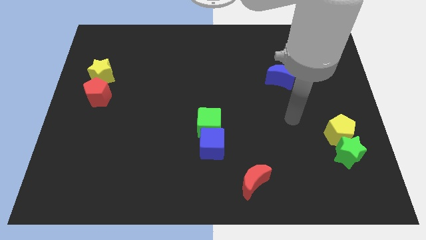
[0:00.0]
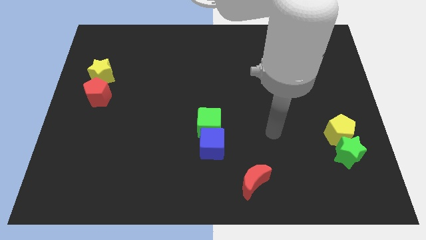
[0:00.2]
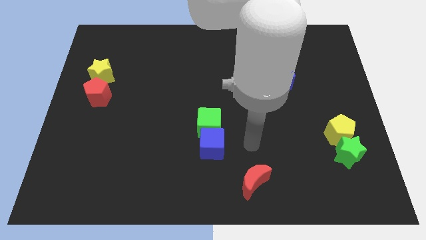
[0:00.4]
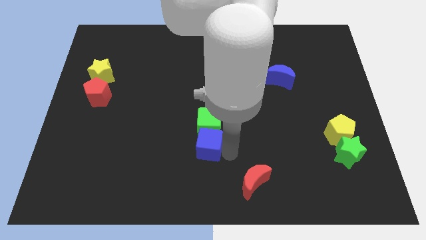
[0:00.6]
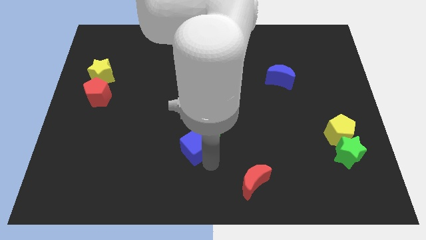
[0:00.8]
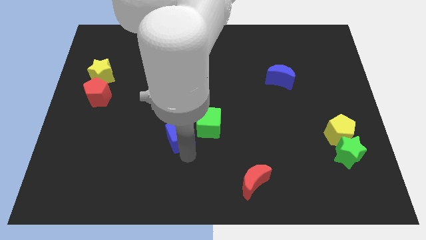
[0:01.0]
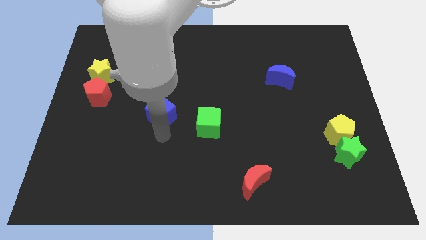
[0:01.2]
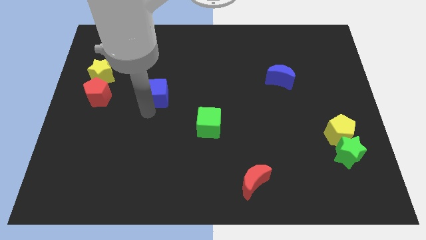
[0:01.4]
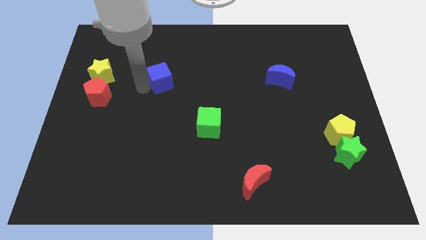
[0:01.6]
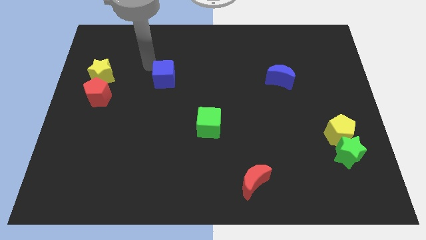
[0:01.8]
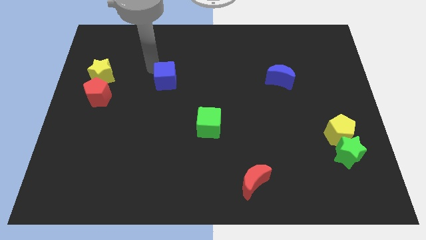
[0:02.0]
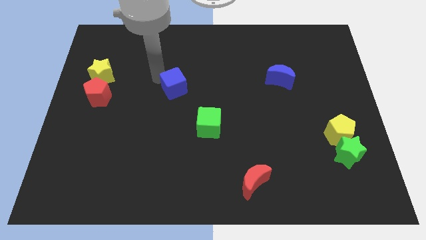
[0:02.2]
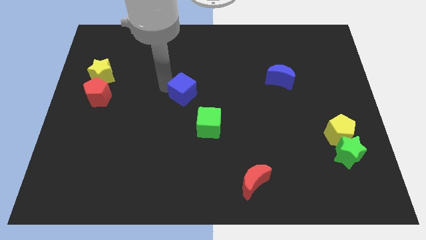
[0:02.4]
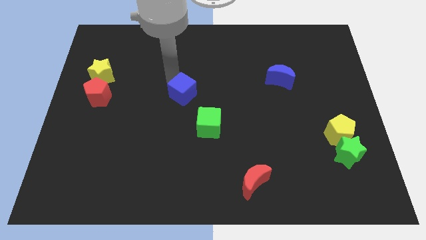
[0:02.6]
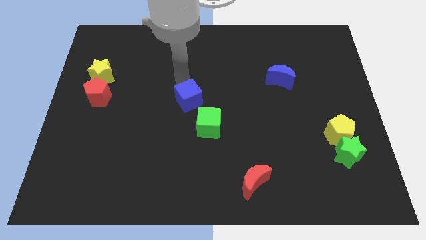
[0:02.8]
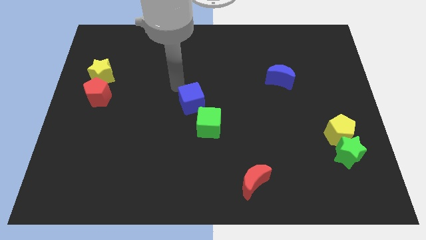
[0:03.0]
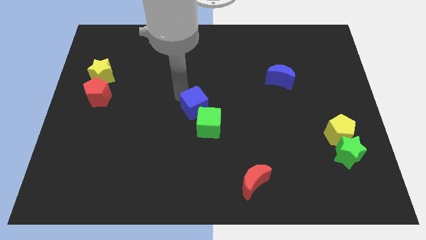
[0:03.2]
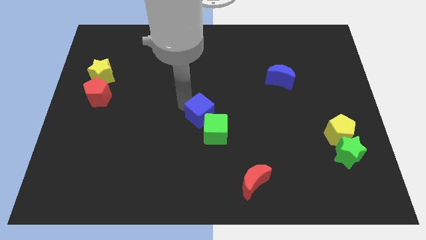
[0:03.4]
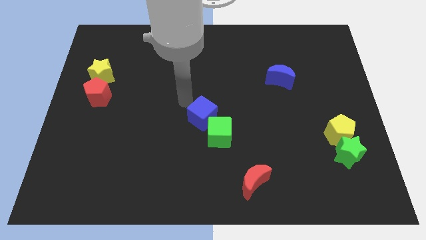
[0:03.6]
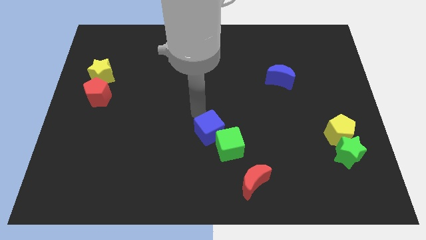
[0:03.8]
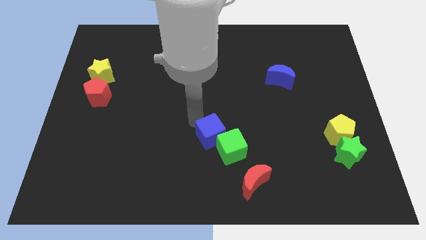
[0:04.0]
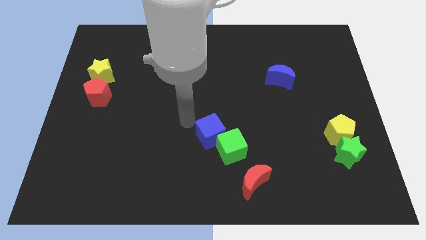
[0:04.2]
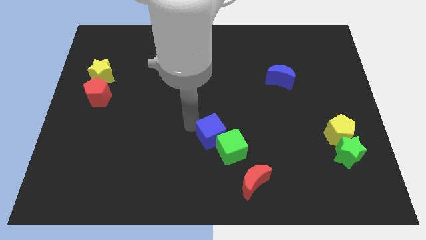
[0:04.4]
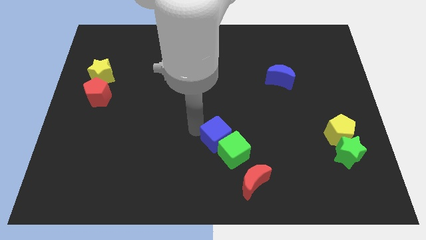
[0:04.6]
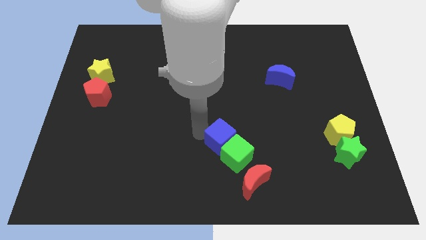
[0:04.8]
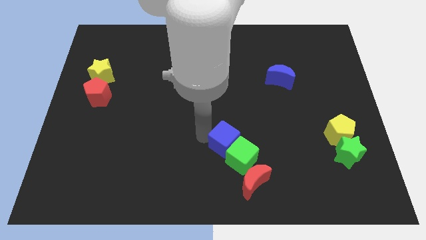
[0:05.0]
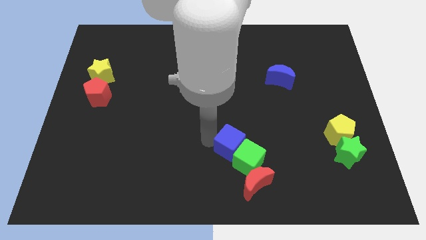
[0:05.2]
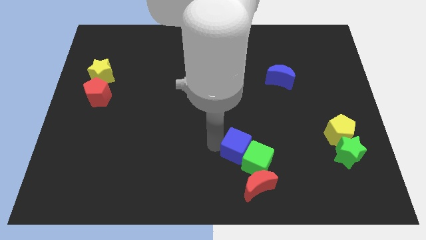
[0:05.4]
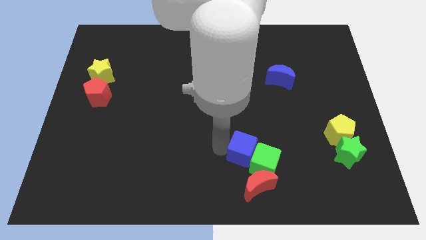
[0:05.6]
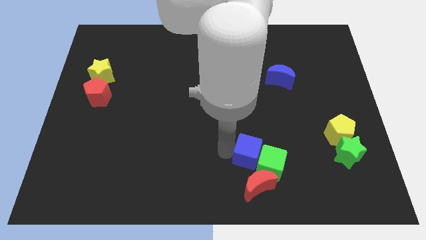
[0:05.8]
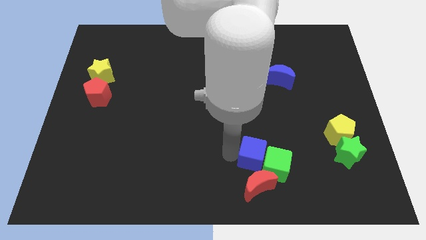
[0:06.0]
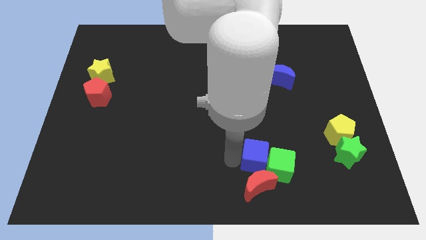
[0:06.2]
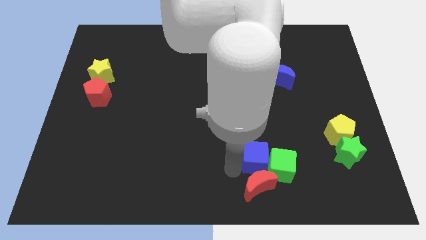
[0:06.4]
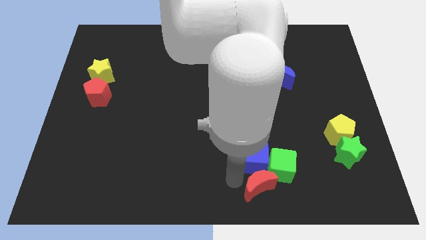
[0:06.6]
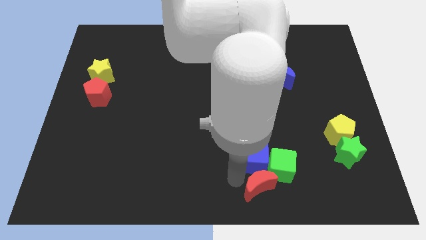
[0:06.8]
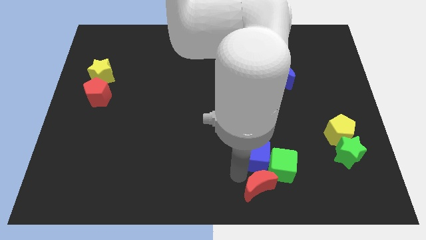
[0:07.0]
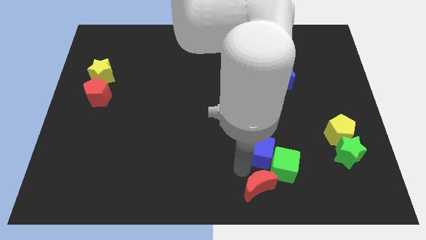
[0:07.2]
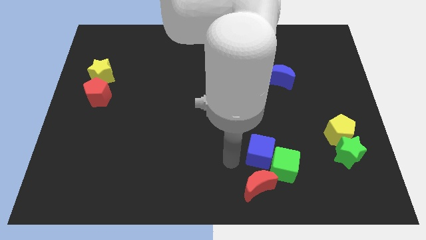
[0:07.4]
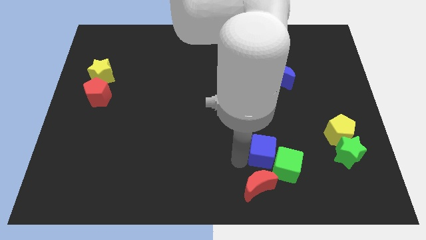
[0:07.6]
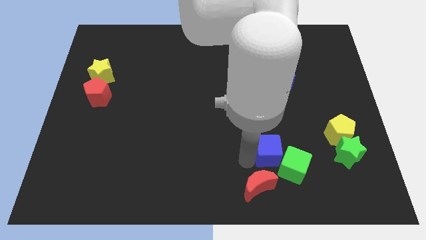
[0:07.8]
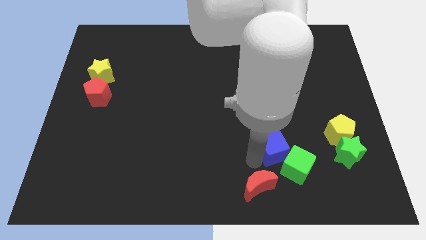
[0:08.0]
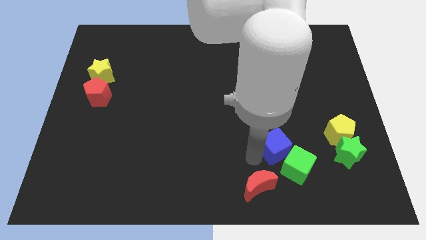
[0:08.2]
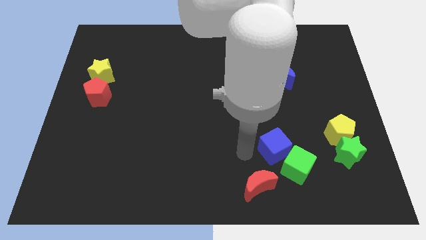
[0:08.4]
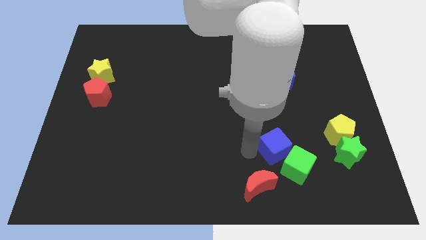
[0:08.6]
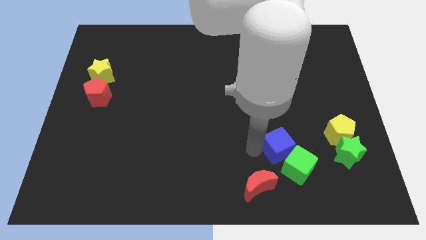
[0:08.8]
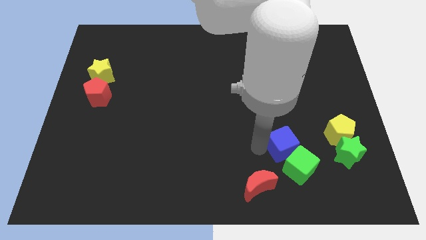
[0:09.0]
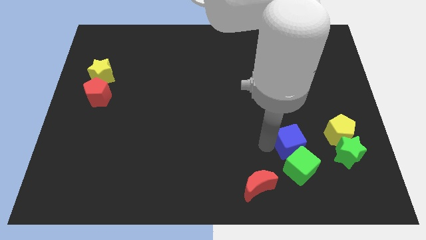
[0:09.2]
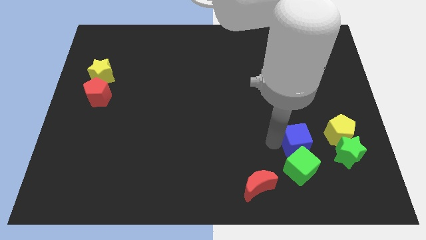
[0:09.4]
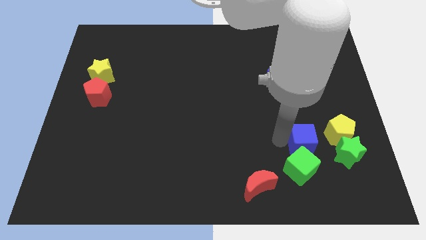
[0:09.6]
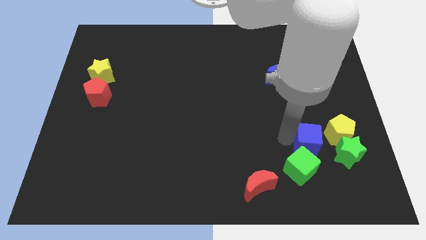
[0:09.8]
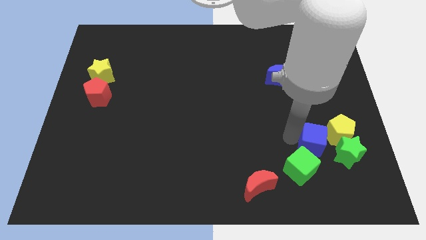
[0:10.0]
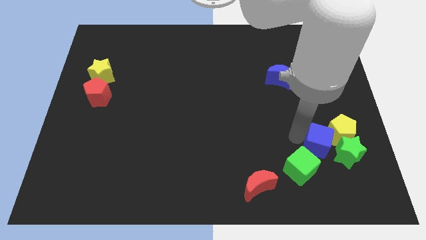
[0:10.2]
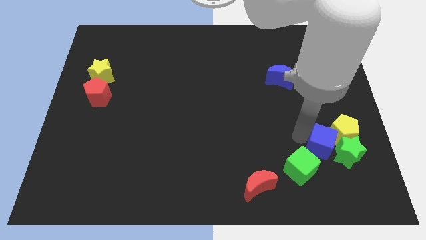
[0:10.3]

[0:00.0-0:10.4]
push the blue cube next to the green star

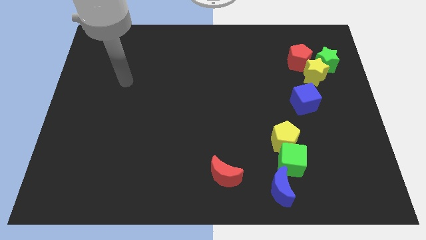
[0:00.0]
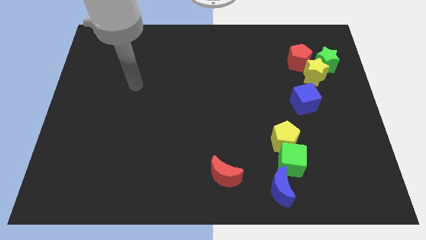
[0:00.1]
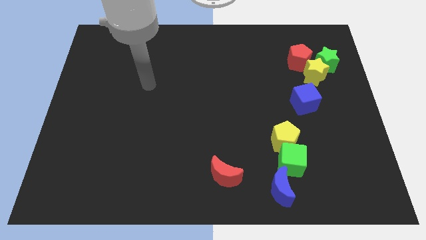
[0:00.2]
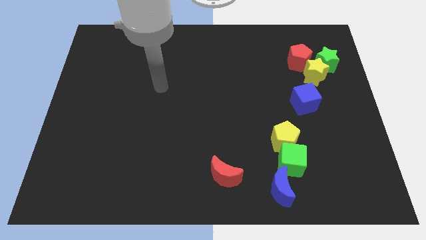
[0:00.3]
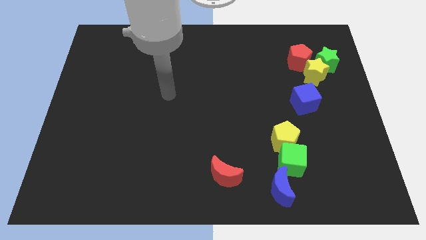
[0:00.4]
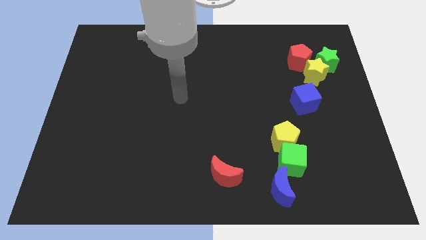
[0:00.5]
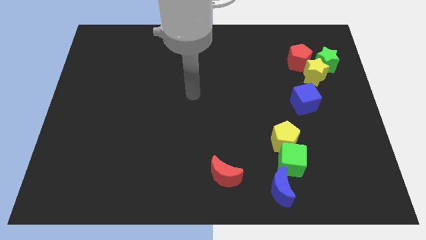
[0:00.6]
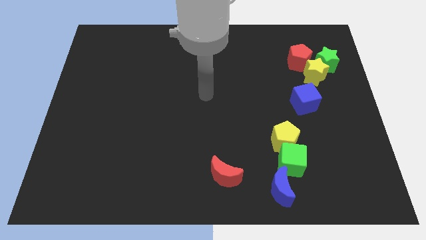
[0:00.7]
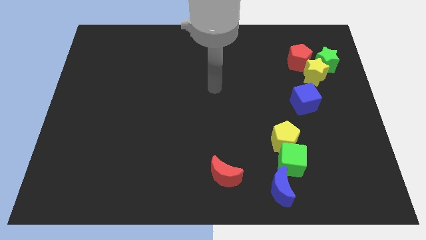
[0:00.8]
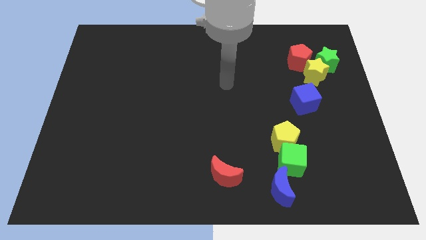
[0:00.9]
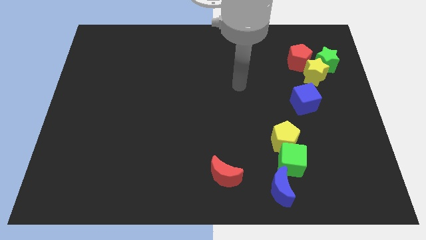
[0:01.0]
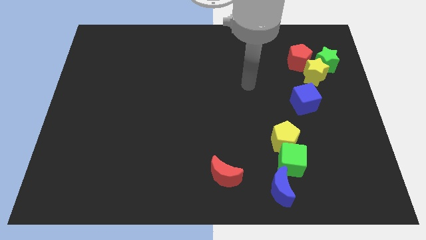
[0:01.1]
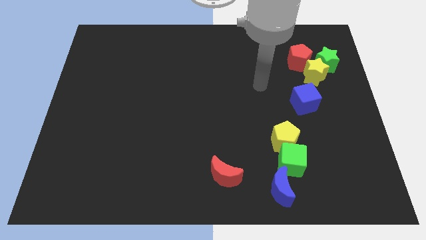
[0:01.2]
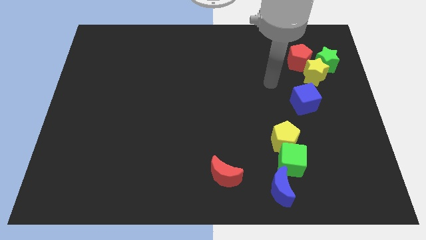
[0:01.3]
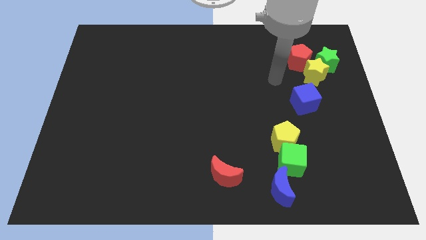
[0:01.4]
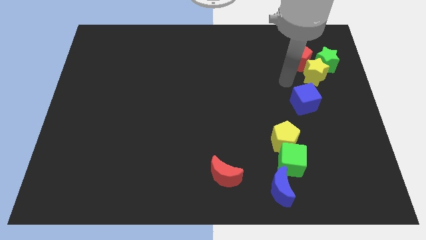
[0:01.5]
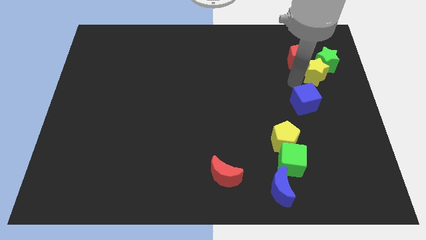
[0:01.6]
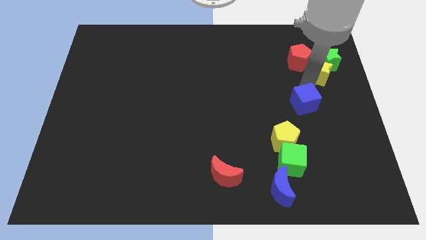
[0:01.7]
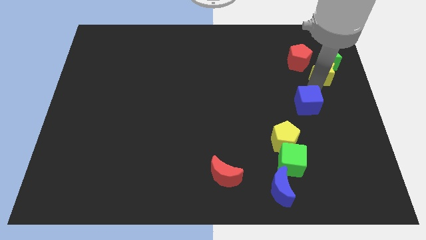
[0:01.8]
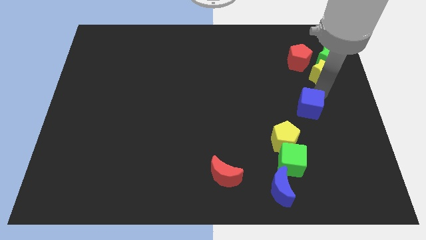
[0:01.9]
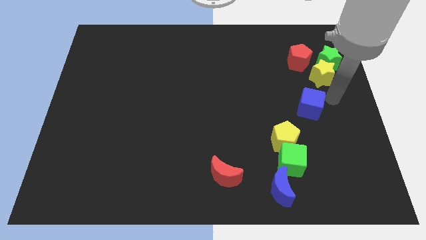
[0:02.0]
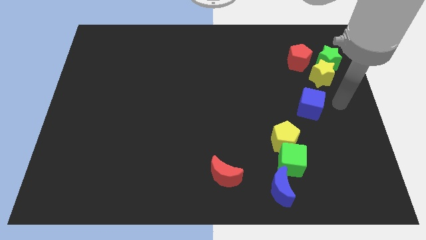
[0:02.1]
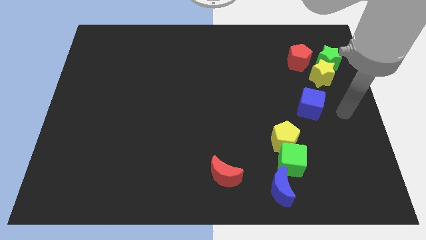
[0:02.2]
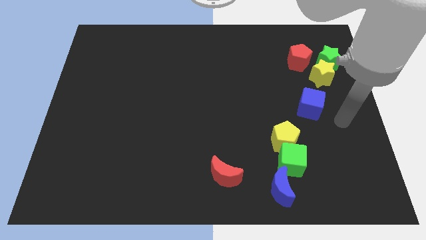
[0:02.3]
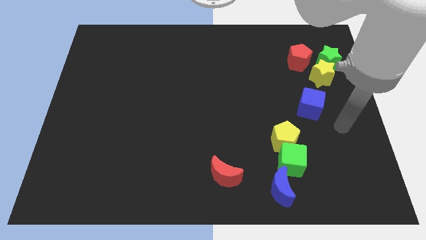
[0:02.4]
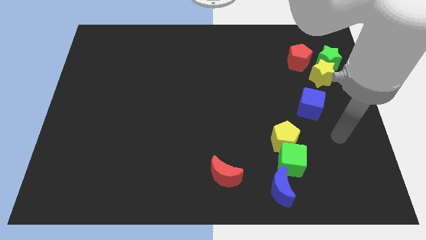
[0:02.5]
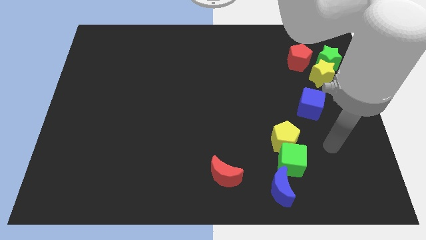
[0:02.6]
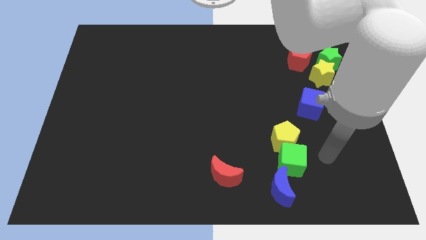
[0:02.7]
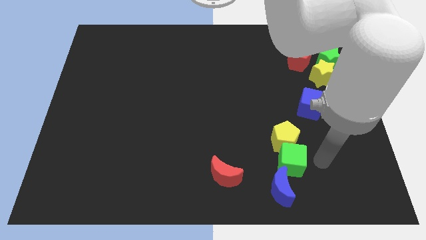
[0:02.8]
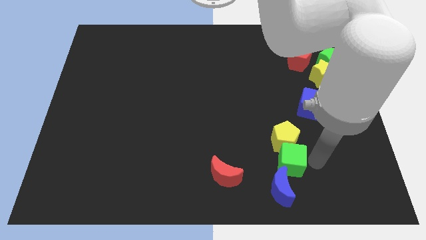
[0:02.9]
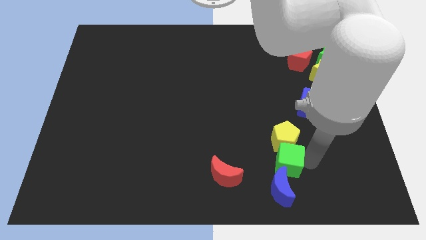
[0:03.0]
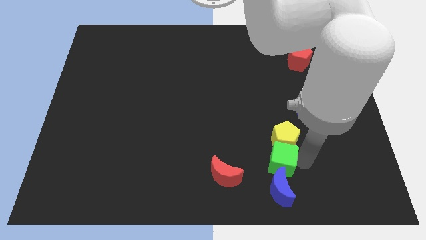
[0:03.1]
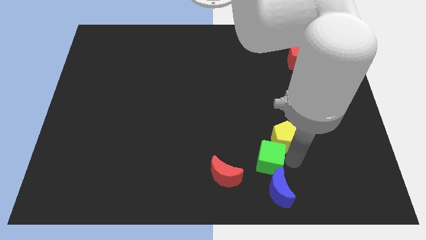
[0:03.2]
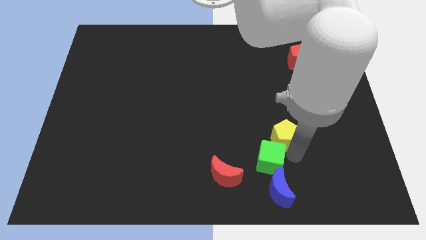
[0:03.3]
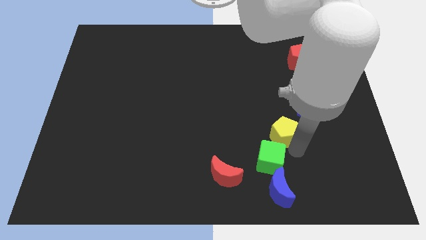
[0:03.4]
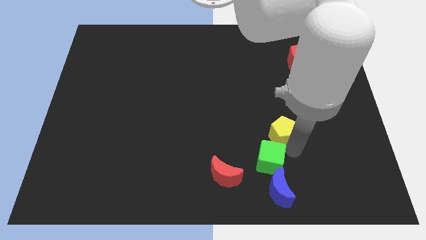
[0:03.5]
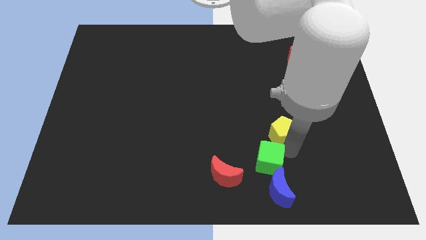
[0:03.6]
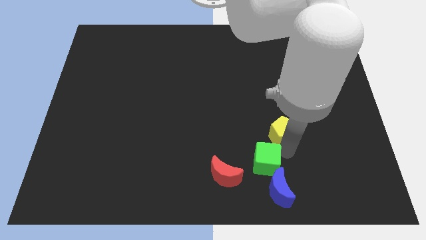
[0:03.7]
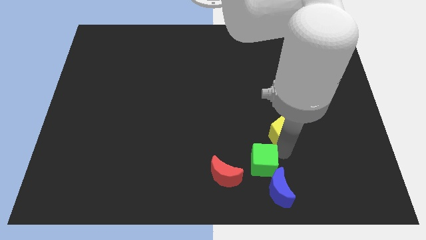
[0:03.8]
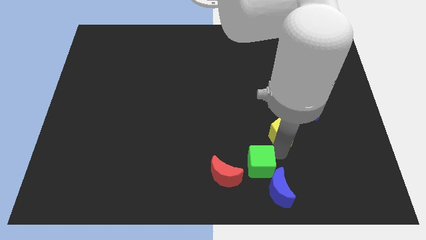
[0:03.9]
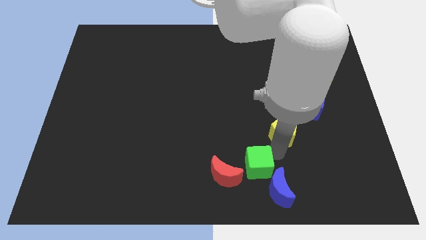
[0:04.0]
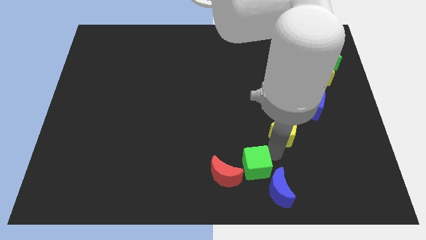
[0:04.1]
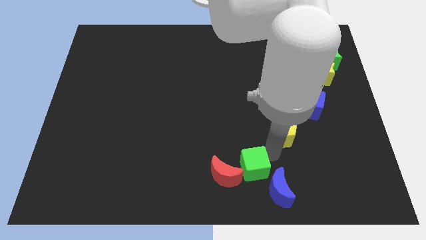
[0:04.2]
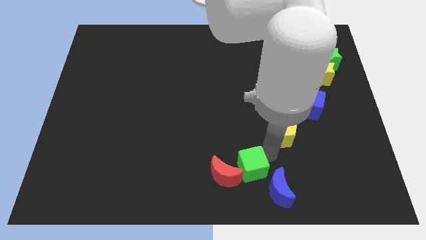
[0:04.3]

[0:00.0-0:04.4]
move the green cube close to the red moon
